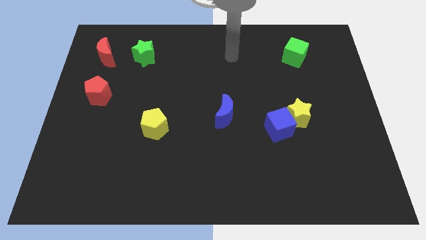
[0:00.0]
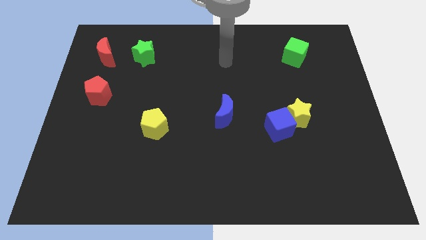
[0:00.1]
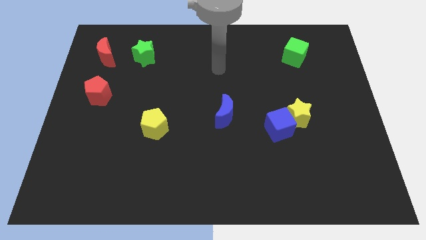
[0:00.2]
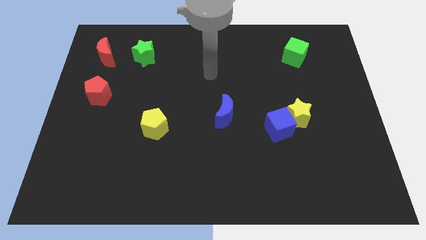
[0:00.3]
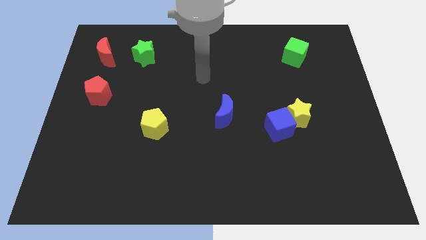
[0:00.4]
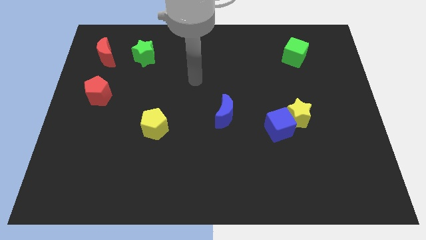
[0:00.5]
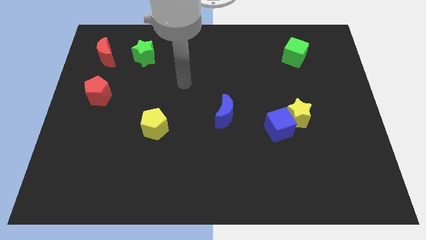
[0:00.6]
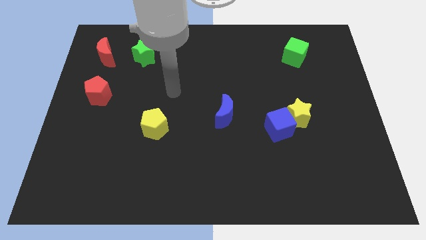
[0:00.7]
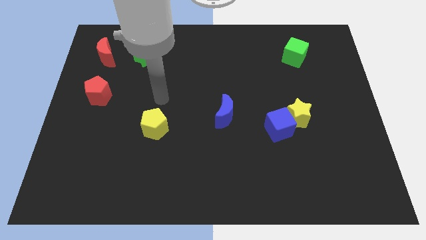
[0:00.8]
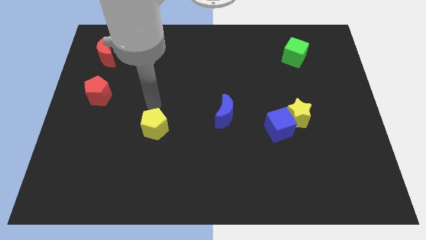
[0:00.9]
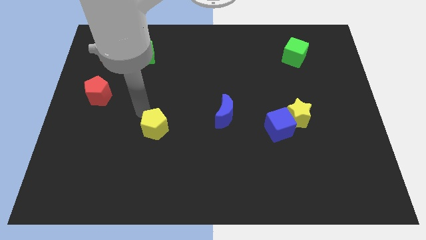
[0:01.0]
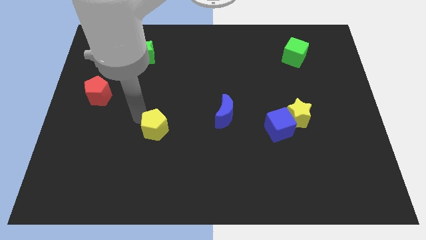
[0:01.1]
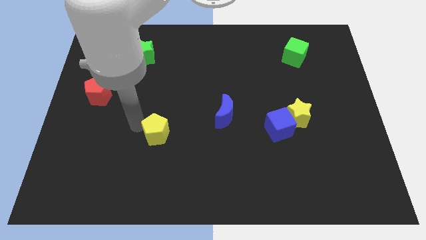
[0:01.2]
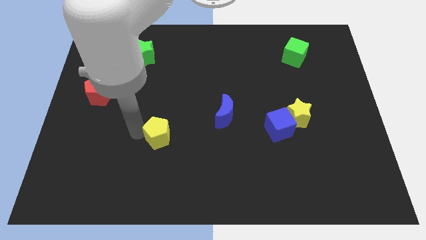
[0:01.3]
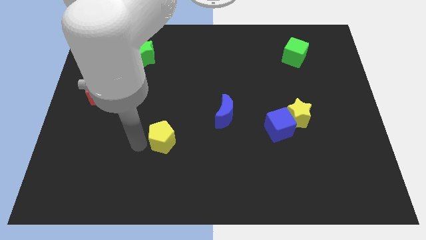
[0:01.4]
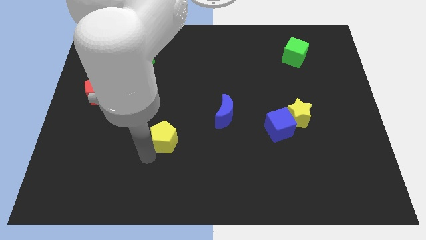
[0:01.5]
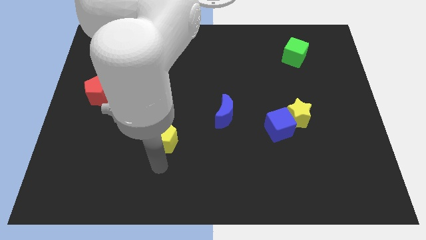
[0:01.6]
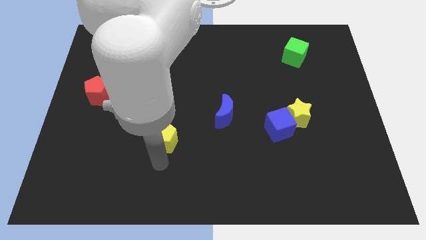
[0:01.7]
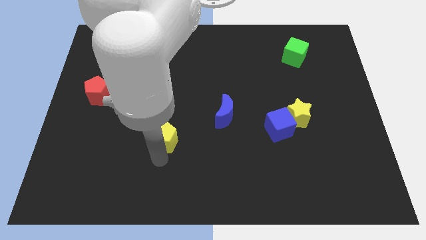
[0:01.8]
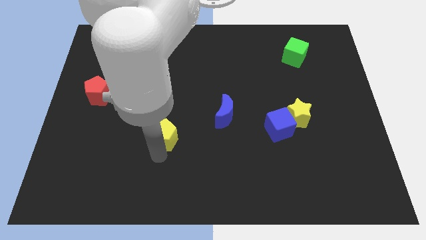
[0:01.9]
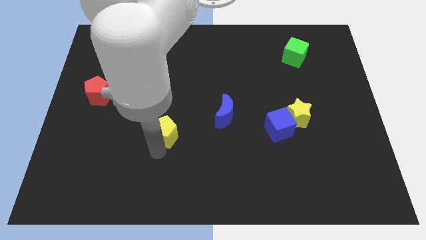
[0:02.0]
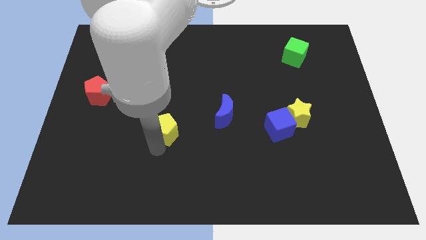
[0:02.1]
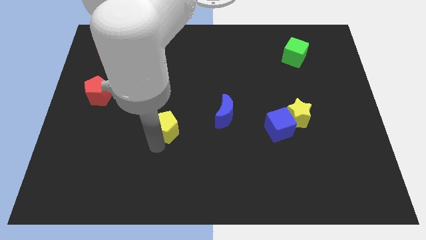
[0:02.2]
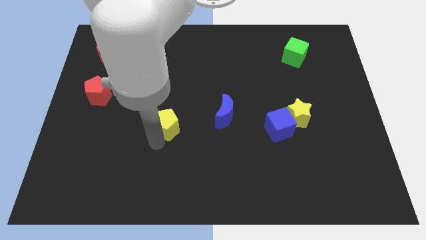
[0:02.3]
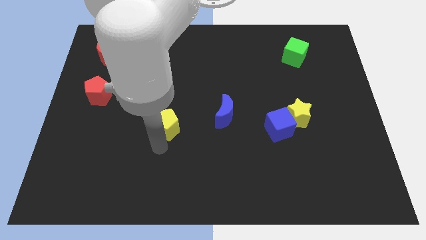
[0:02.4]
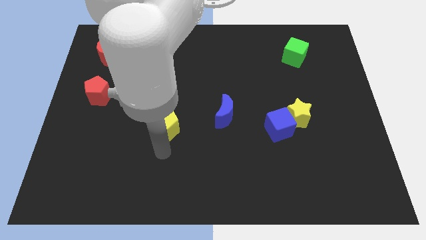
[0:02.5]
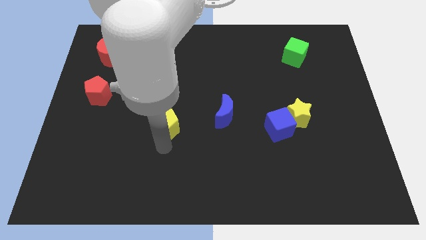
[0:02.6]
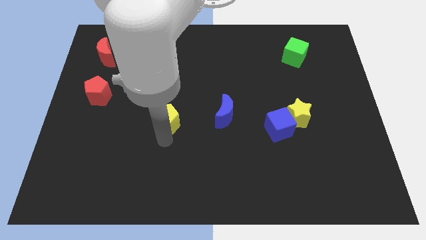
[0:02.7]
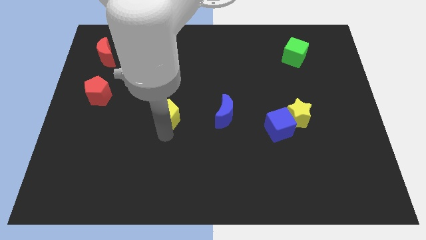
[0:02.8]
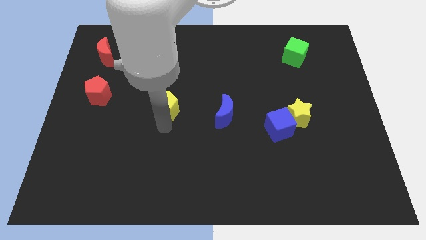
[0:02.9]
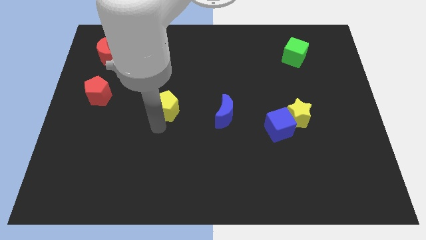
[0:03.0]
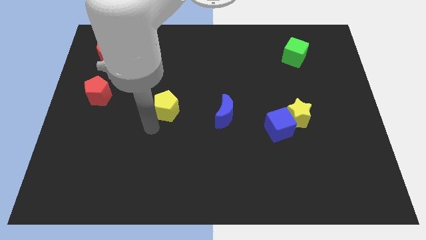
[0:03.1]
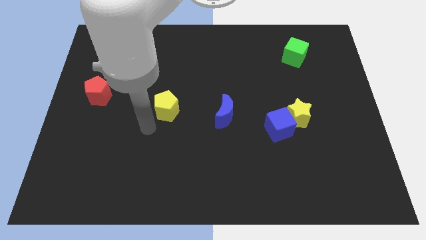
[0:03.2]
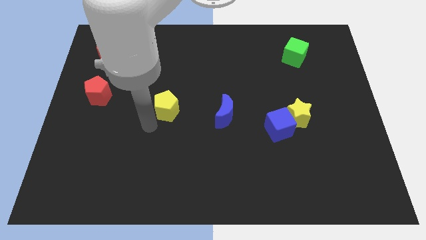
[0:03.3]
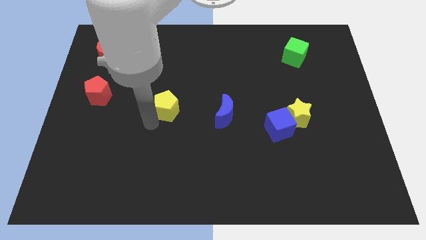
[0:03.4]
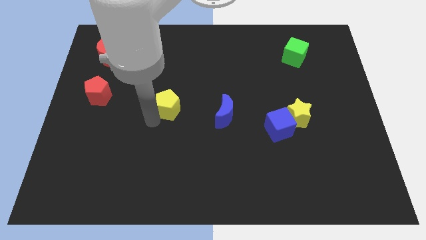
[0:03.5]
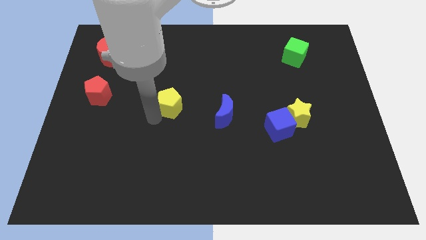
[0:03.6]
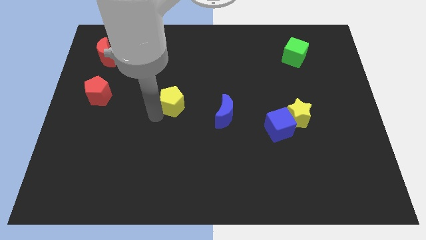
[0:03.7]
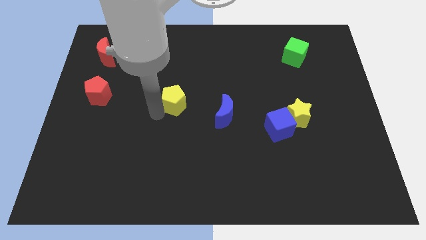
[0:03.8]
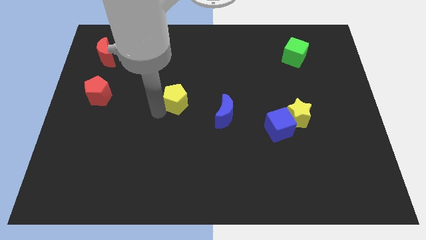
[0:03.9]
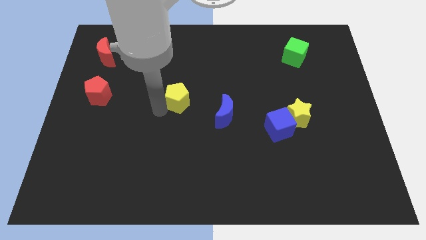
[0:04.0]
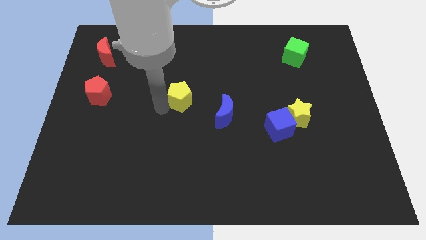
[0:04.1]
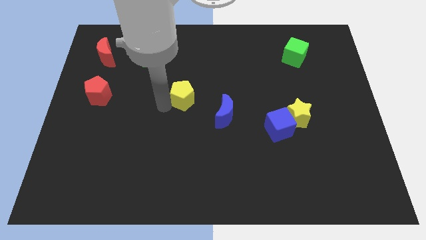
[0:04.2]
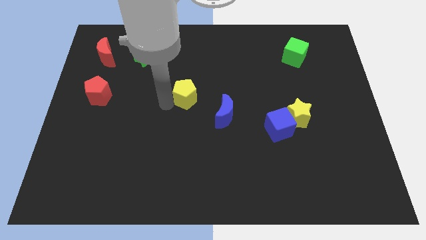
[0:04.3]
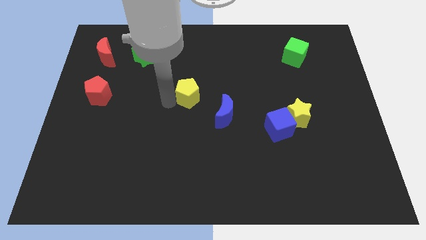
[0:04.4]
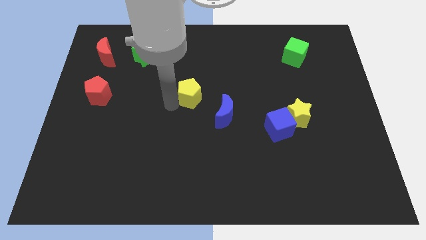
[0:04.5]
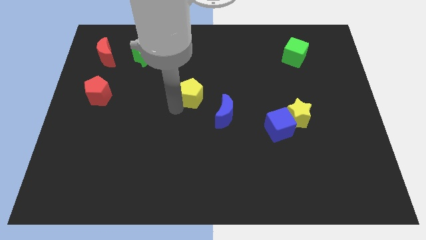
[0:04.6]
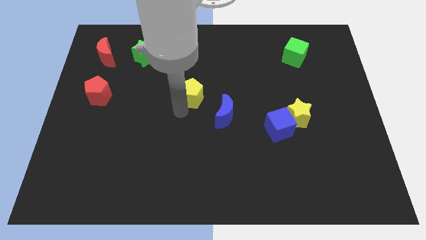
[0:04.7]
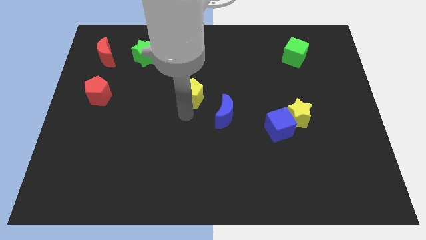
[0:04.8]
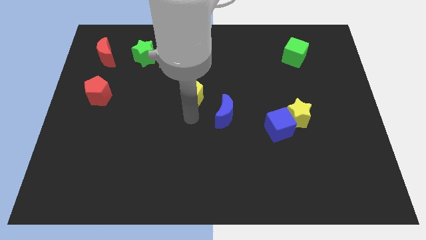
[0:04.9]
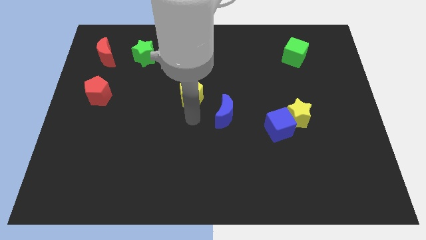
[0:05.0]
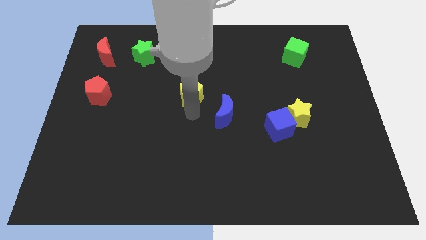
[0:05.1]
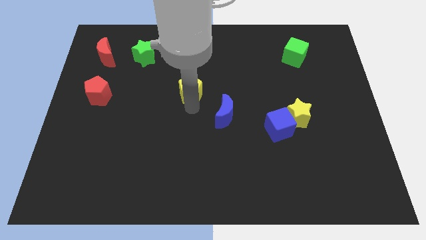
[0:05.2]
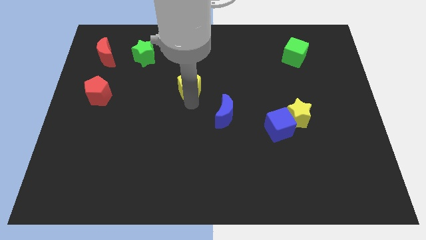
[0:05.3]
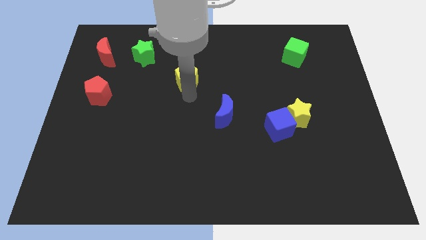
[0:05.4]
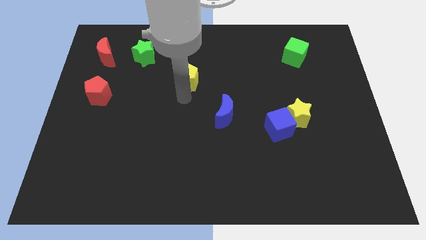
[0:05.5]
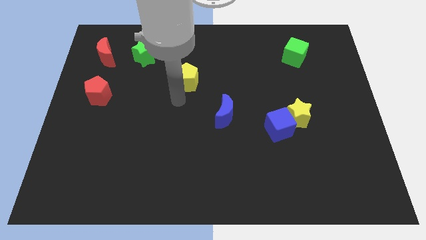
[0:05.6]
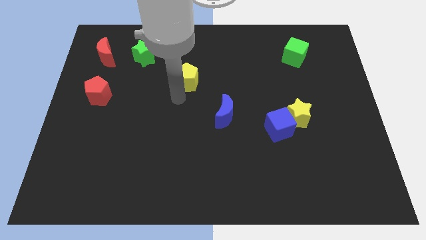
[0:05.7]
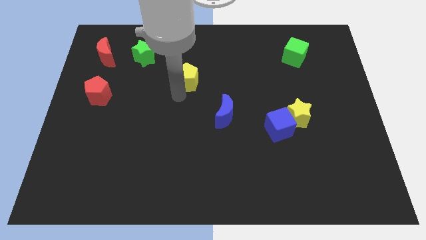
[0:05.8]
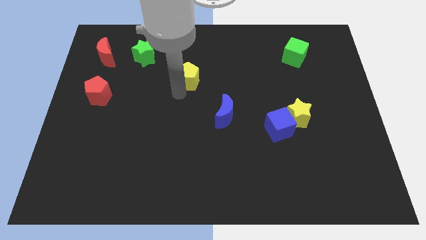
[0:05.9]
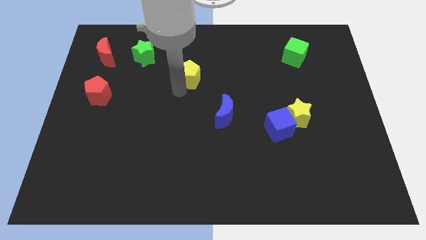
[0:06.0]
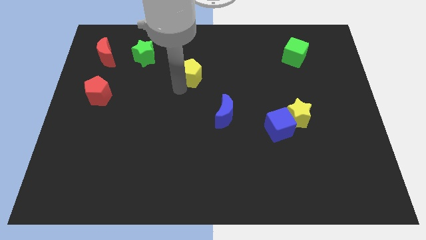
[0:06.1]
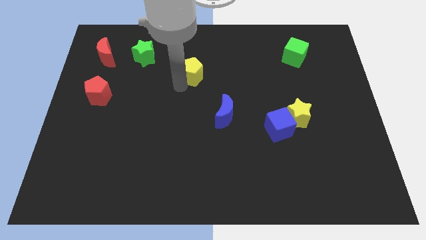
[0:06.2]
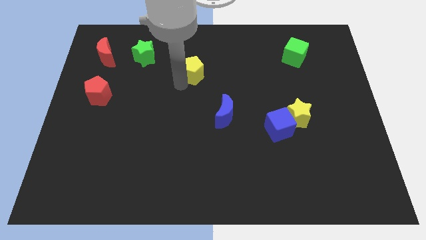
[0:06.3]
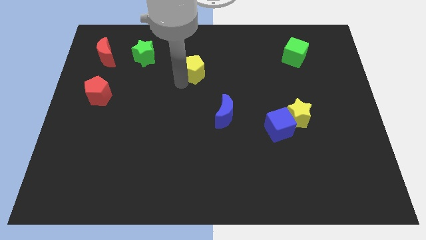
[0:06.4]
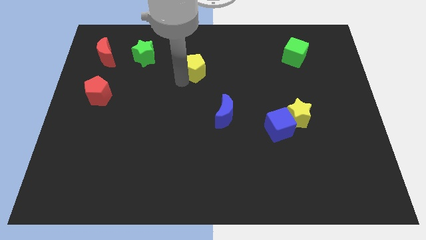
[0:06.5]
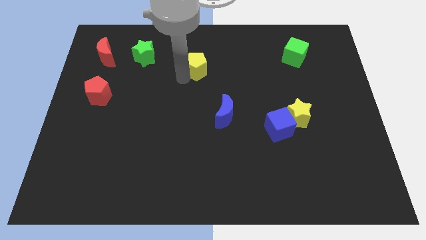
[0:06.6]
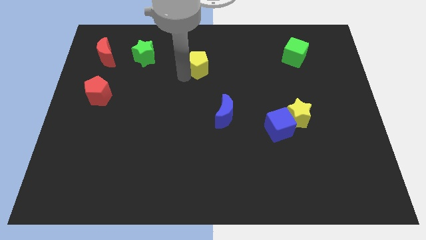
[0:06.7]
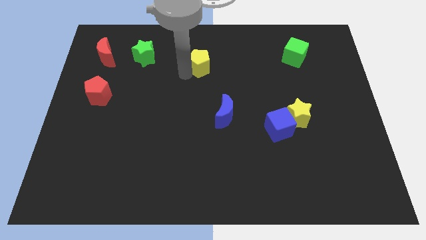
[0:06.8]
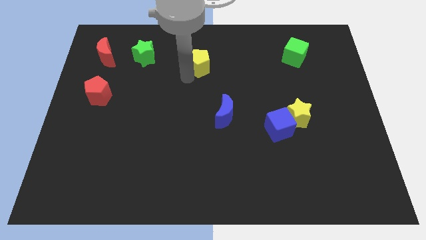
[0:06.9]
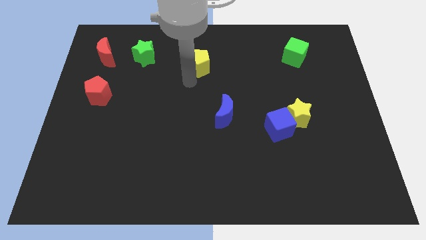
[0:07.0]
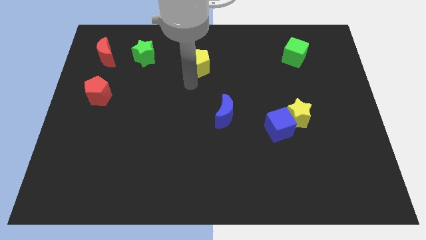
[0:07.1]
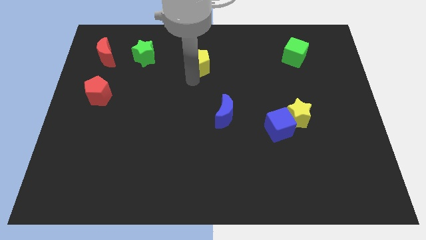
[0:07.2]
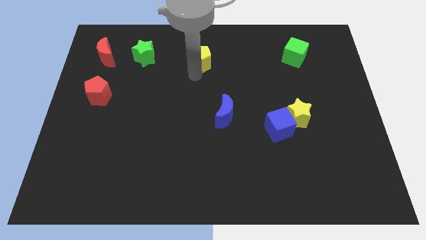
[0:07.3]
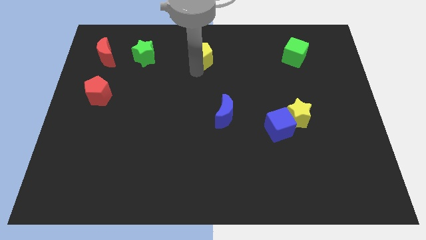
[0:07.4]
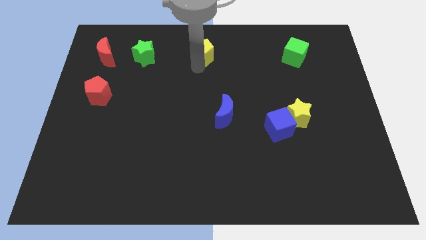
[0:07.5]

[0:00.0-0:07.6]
put the yellow pentagon to the towards your base
